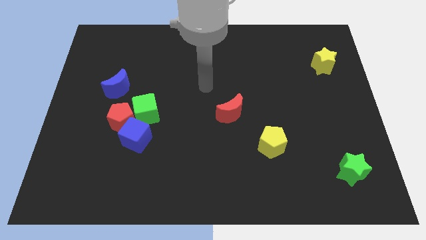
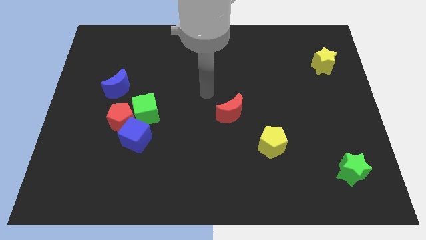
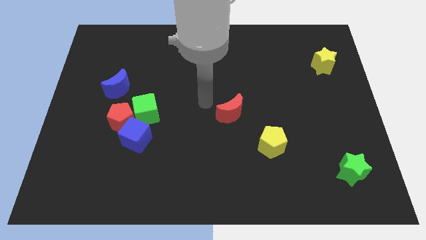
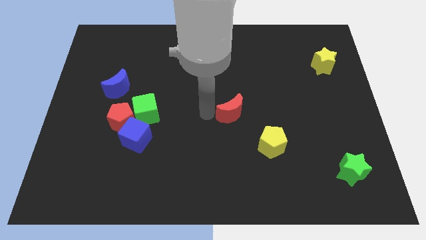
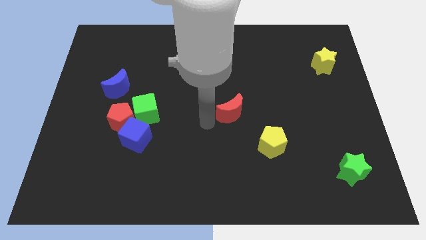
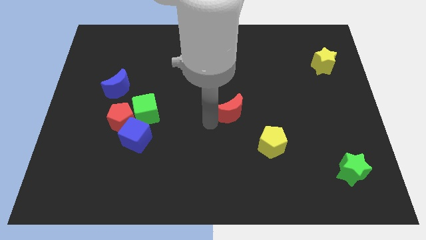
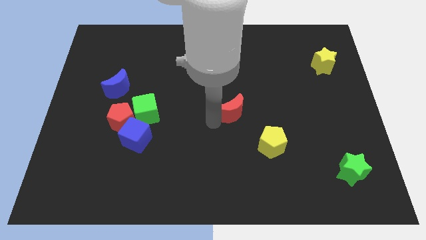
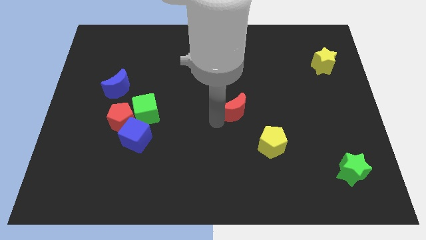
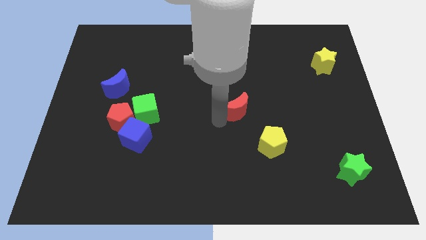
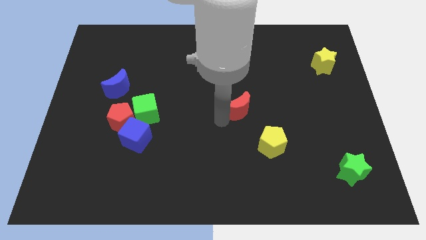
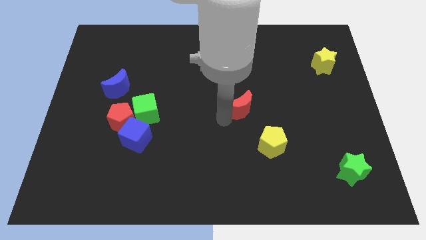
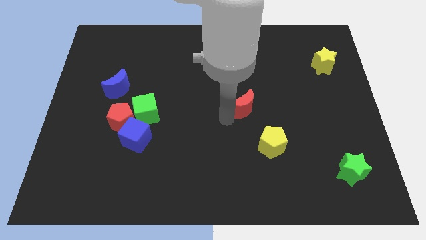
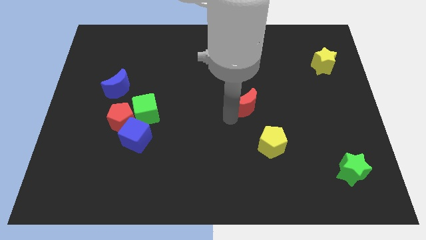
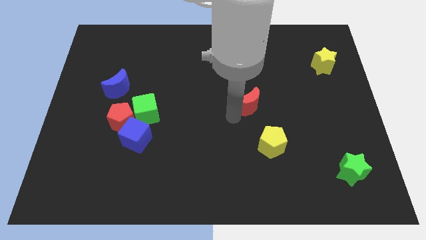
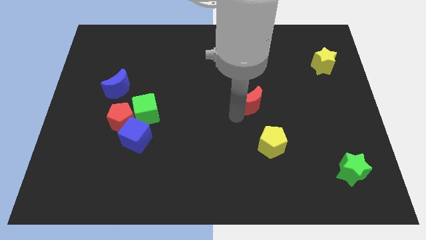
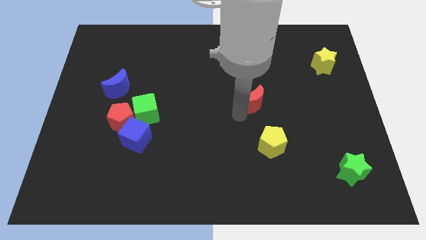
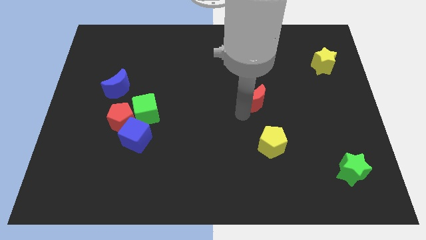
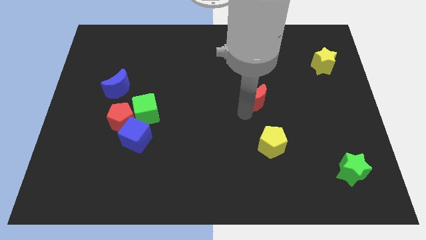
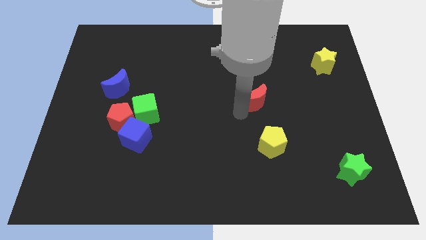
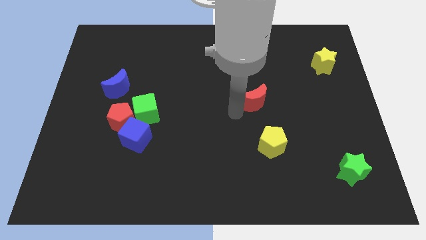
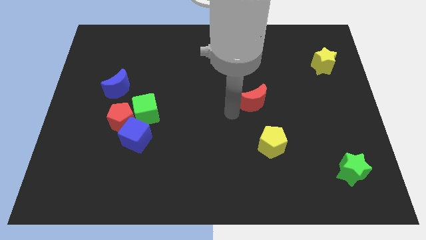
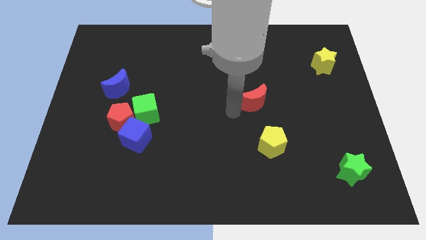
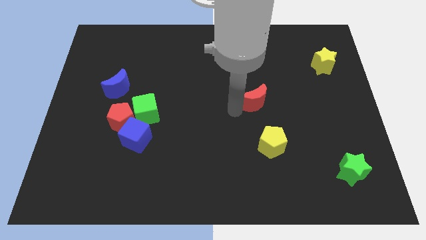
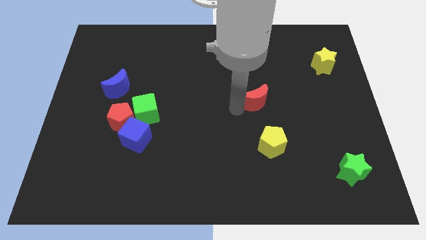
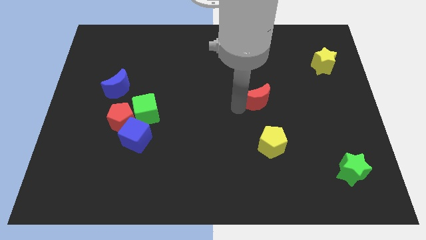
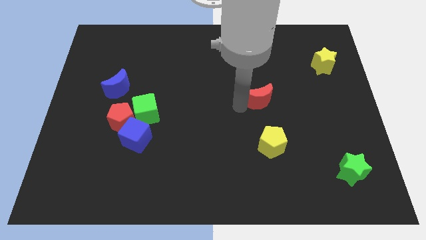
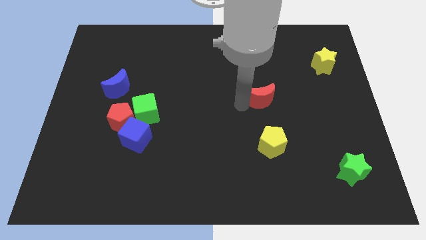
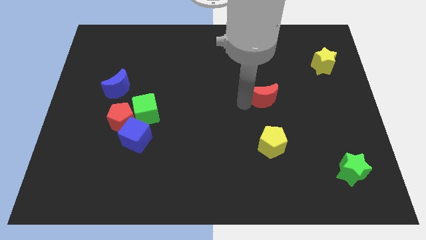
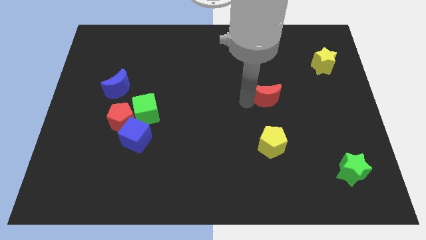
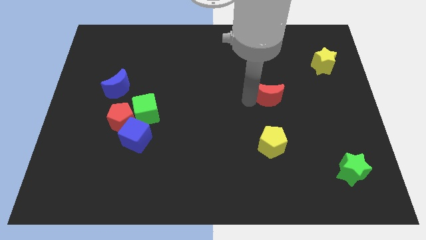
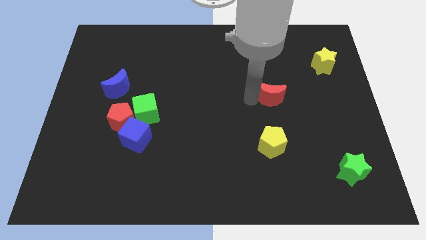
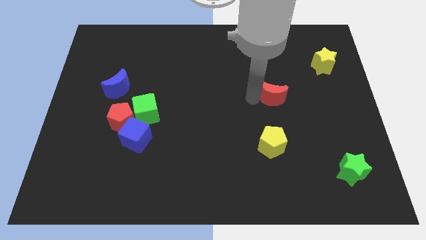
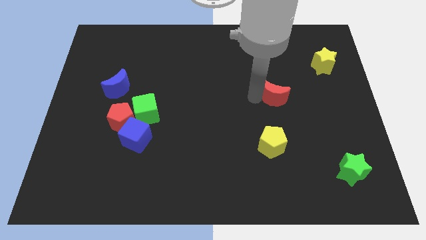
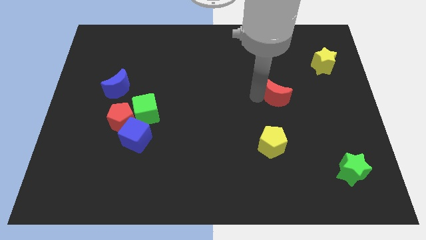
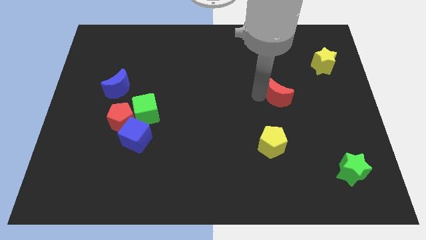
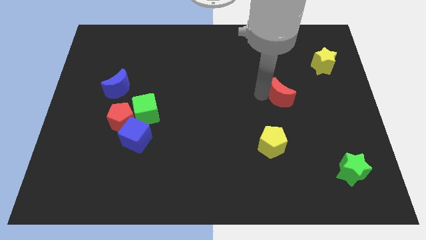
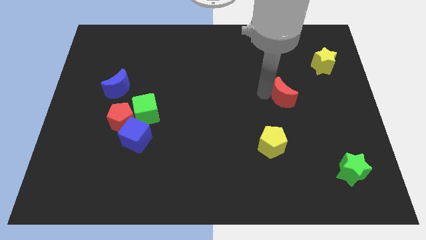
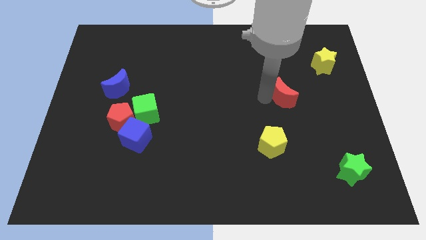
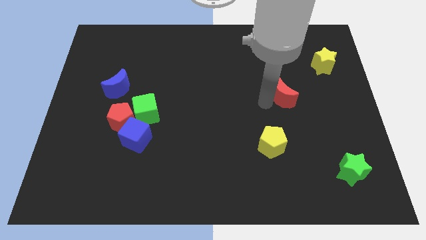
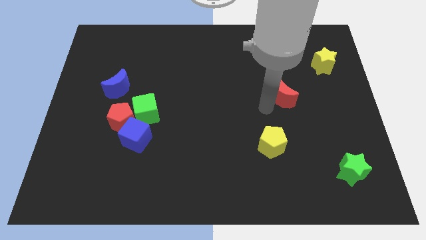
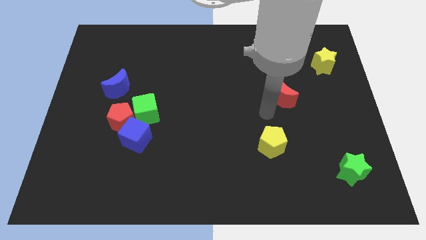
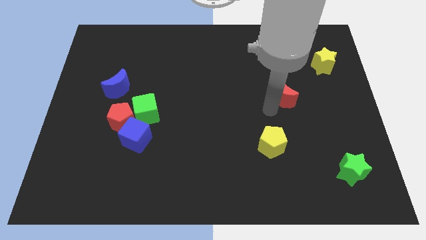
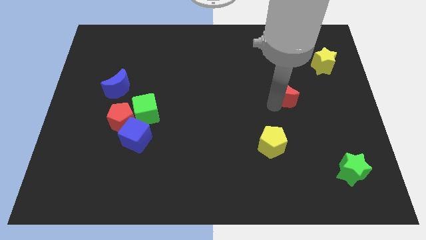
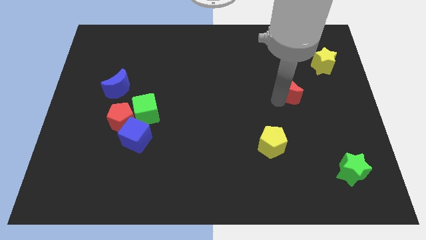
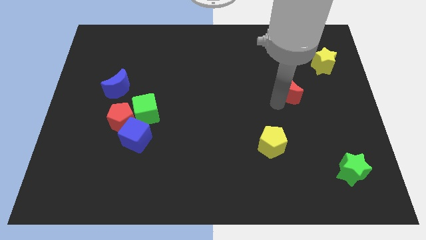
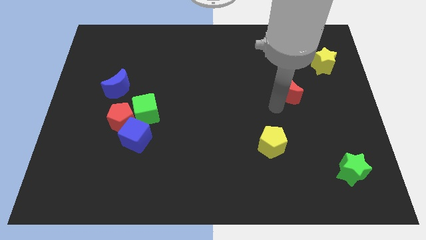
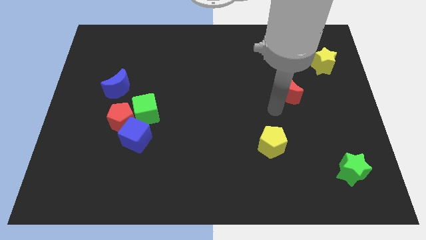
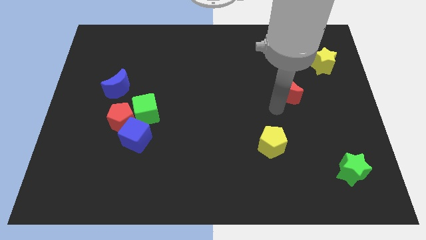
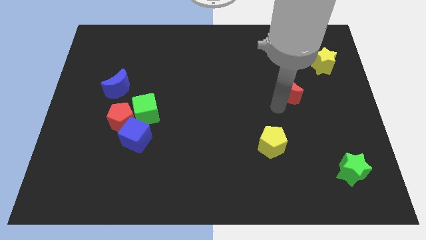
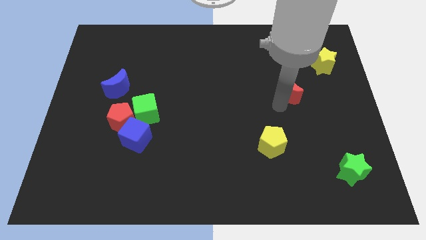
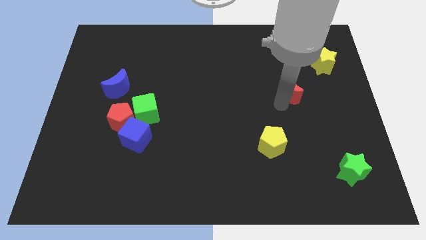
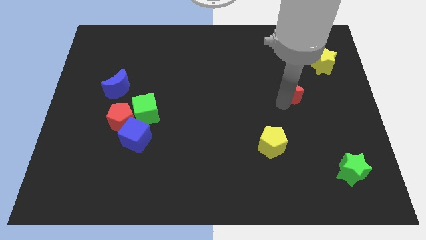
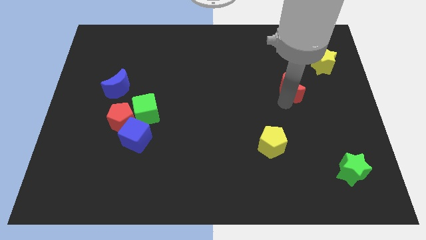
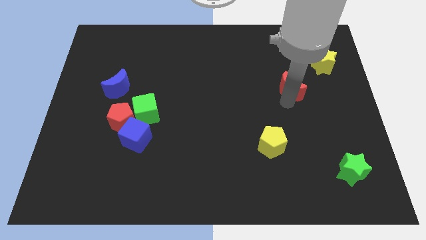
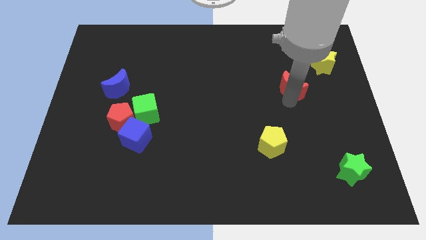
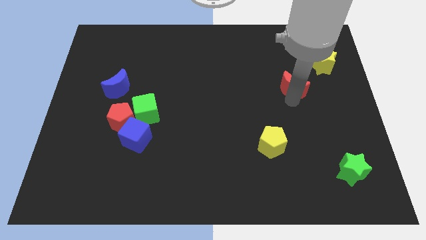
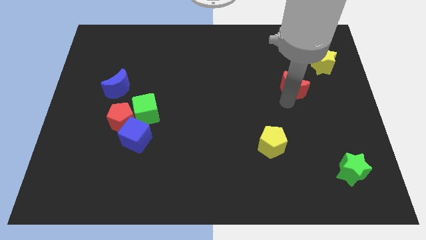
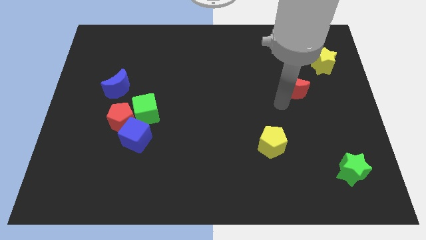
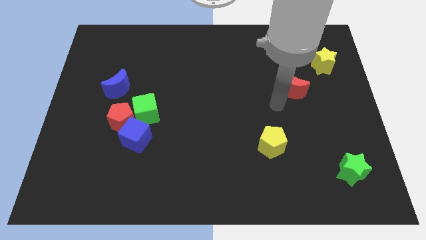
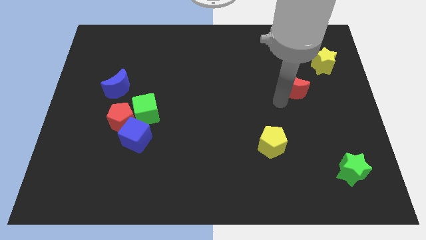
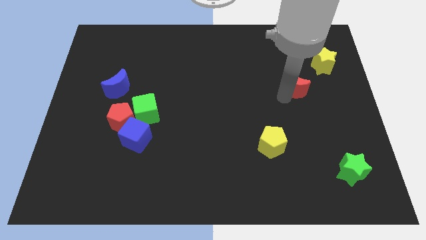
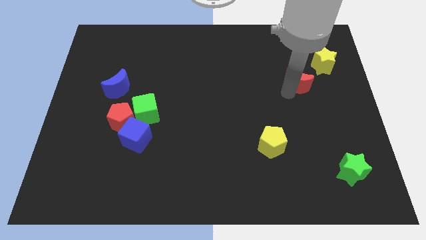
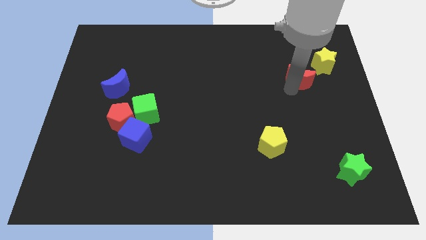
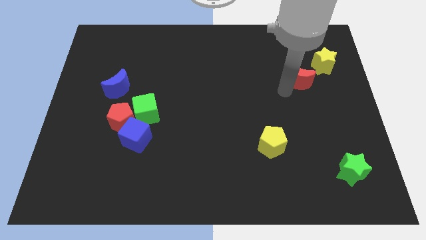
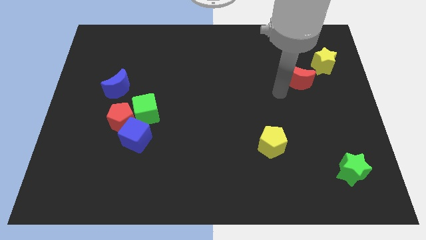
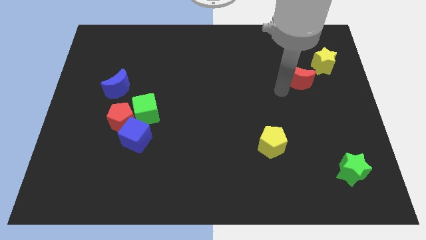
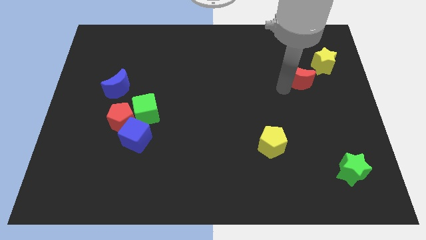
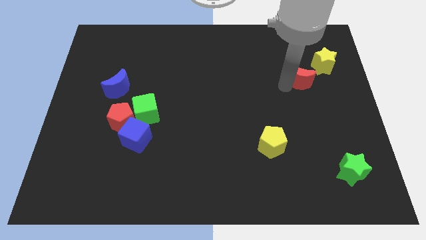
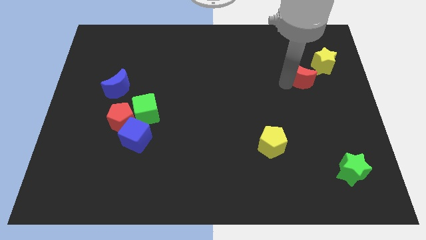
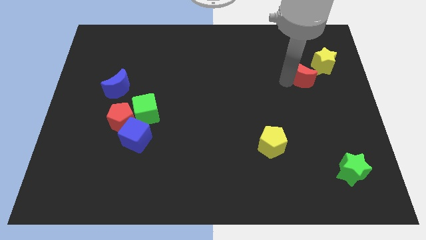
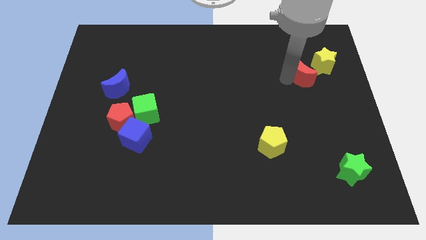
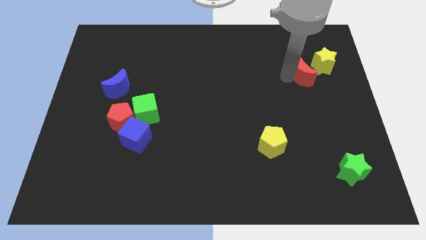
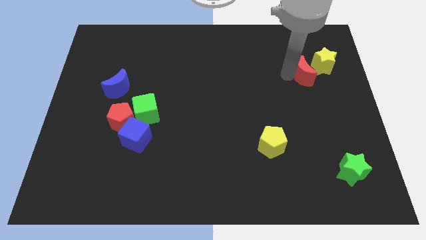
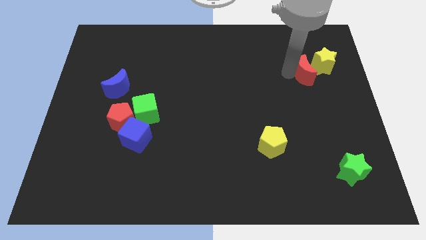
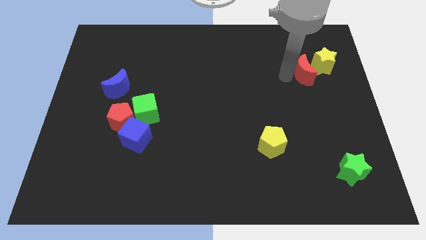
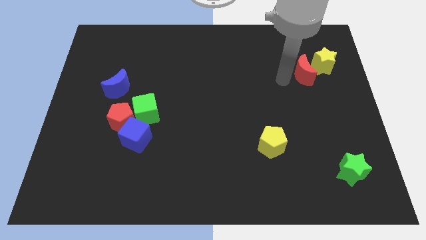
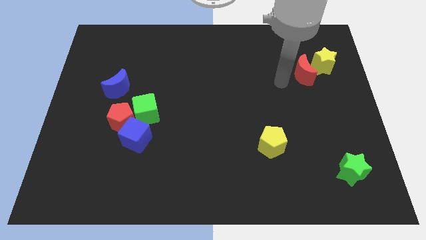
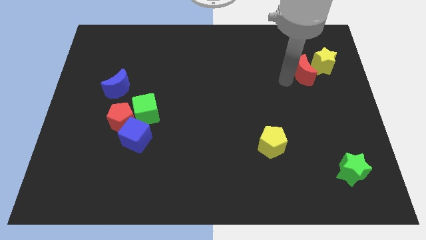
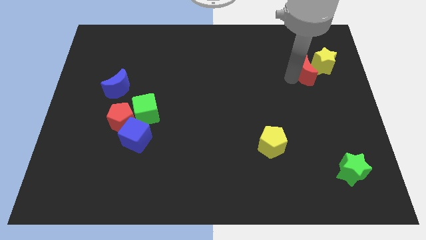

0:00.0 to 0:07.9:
move the red moon next to the yellow star
